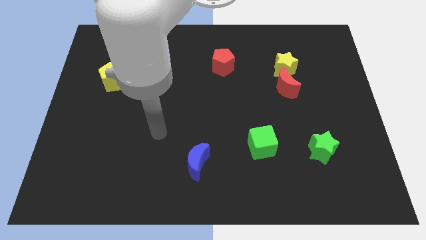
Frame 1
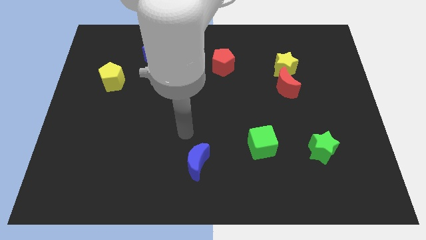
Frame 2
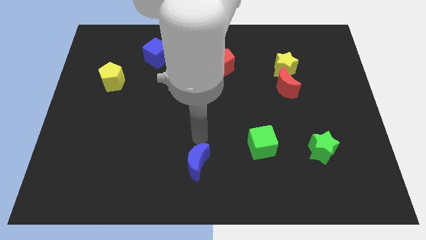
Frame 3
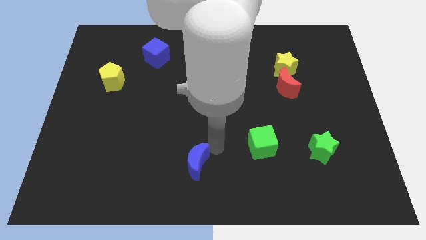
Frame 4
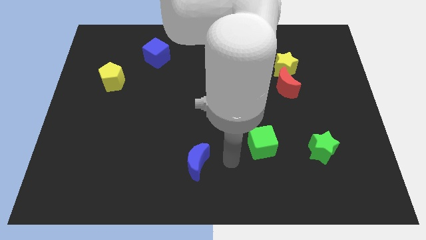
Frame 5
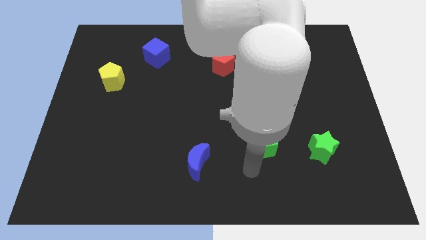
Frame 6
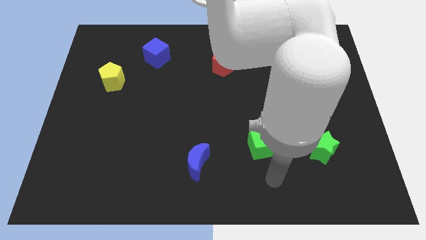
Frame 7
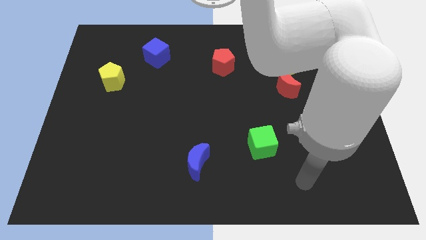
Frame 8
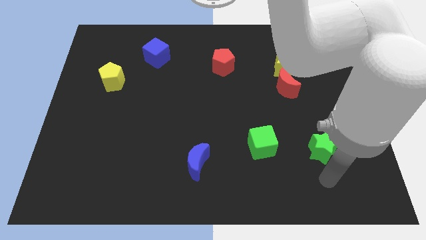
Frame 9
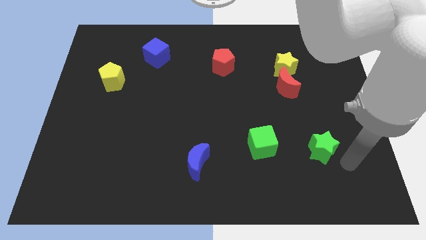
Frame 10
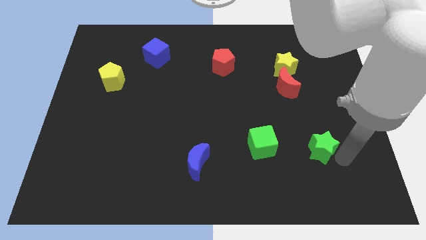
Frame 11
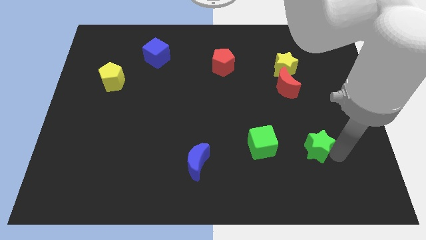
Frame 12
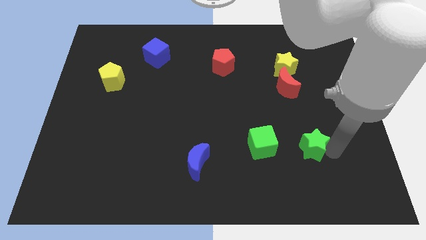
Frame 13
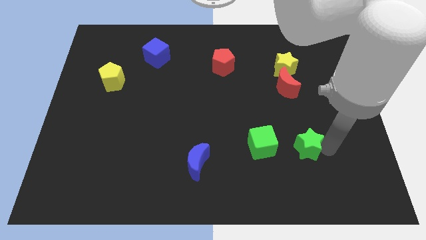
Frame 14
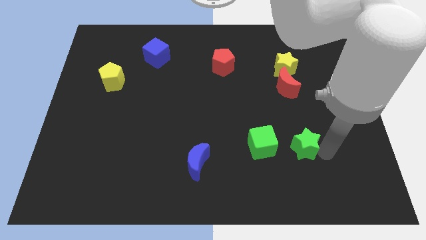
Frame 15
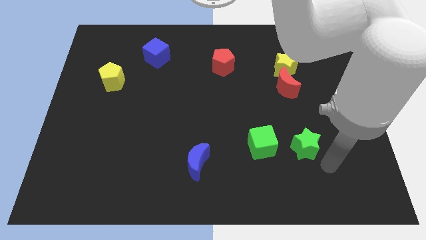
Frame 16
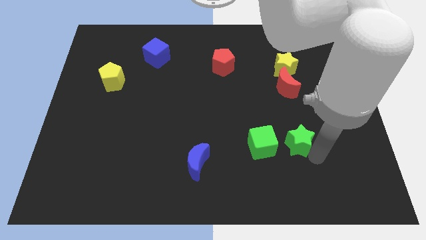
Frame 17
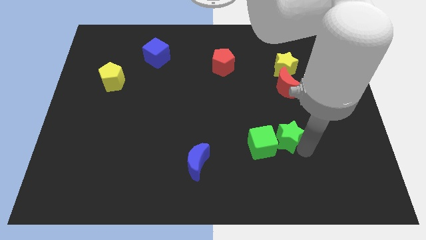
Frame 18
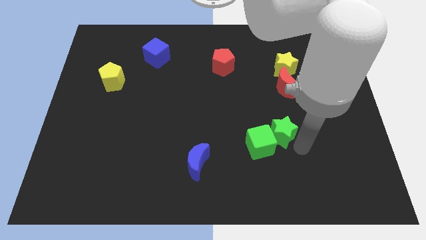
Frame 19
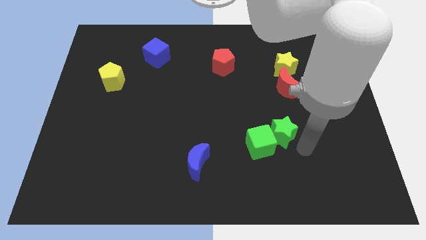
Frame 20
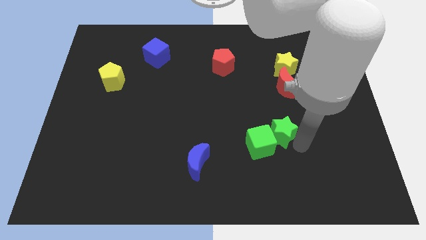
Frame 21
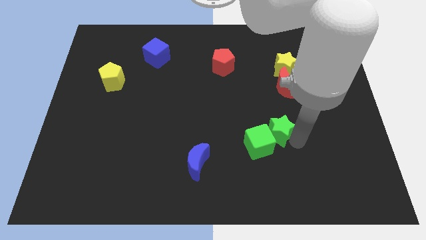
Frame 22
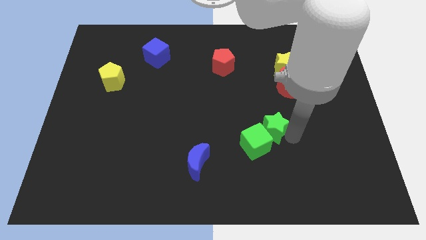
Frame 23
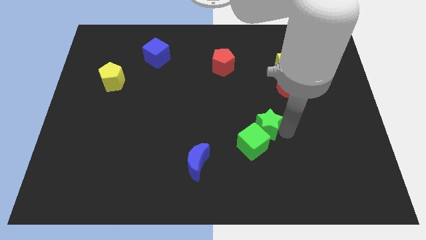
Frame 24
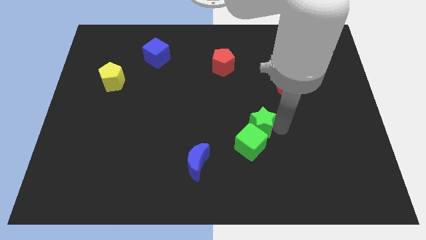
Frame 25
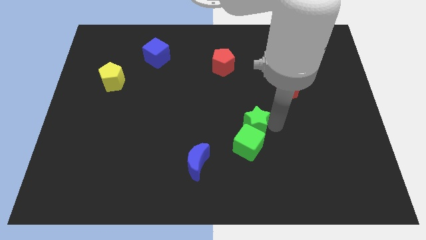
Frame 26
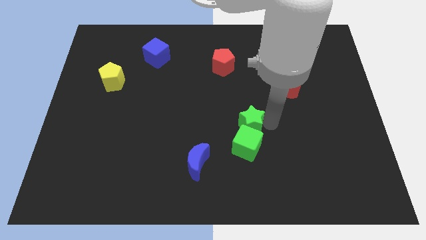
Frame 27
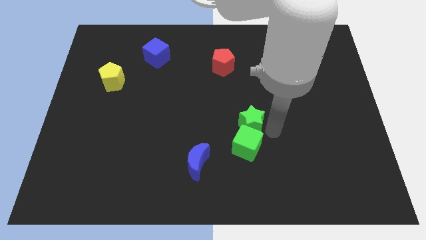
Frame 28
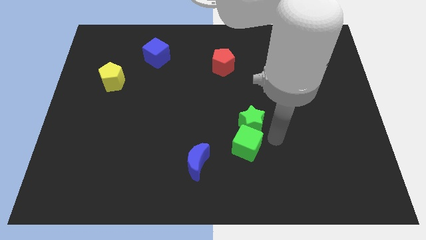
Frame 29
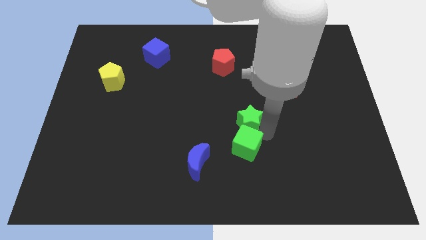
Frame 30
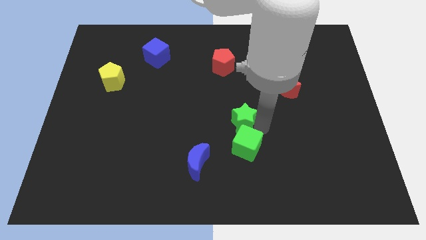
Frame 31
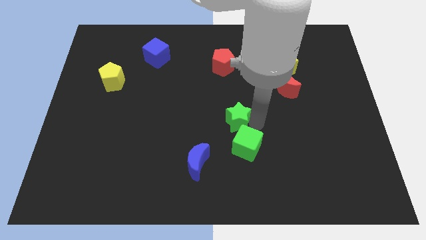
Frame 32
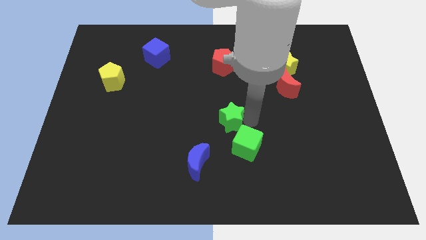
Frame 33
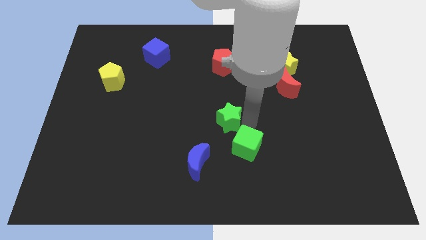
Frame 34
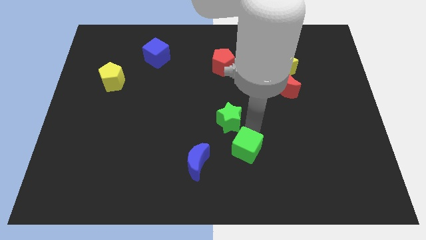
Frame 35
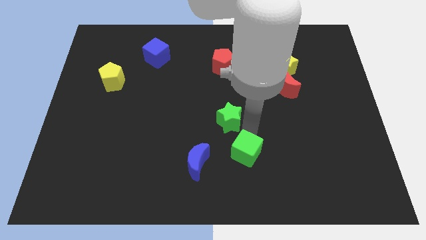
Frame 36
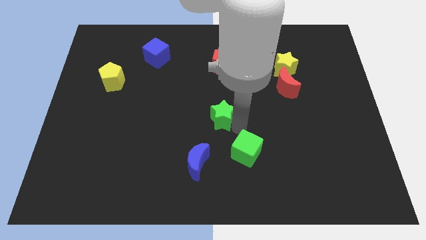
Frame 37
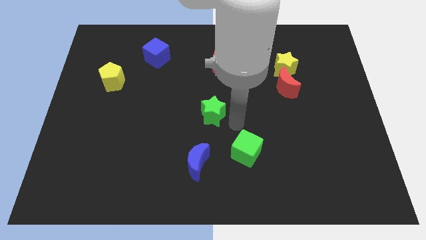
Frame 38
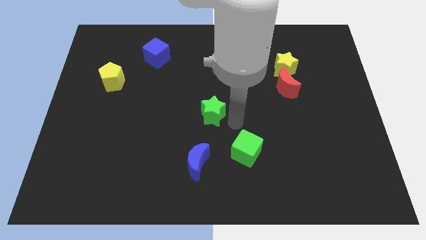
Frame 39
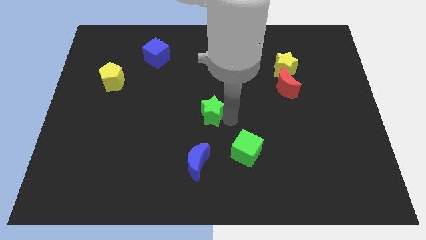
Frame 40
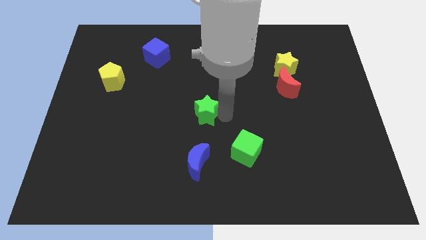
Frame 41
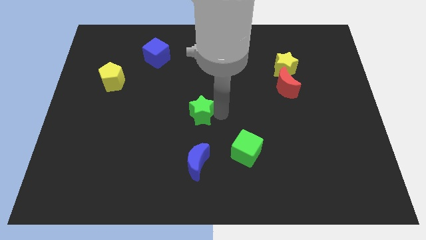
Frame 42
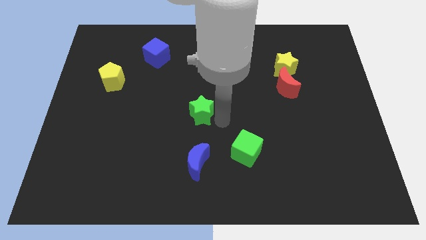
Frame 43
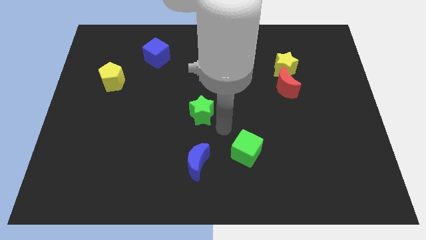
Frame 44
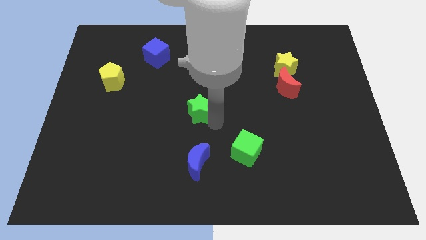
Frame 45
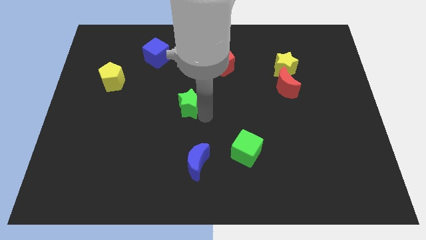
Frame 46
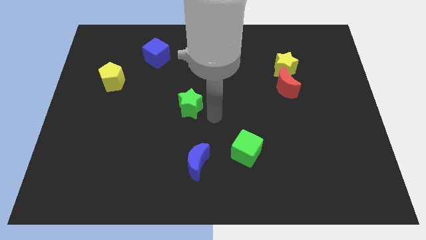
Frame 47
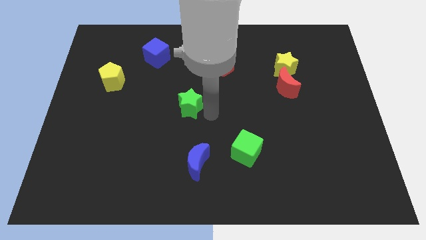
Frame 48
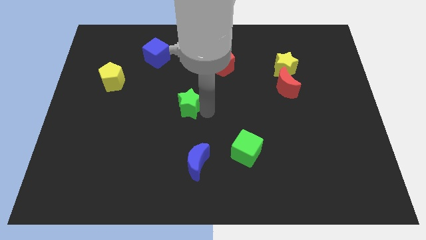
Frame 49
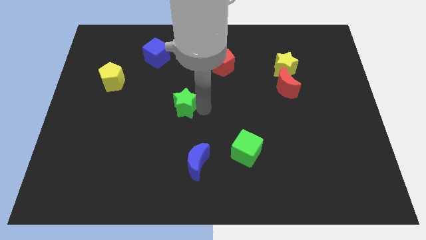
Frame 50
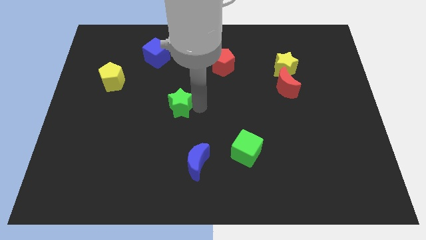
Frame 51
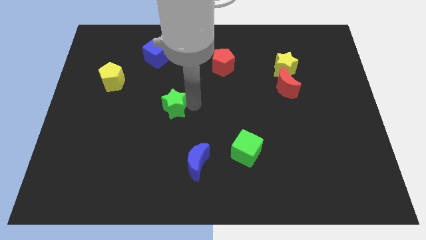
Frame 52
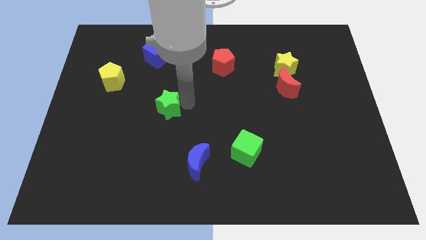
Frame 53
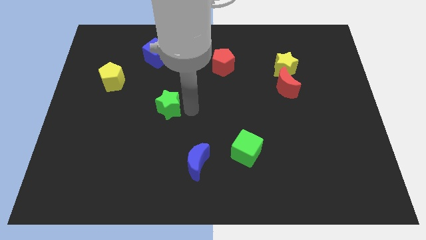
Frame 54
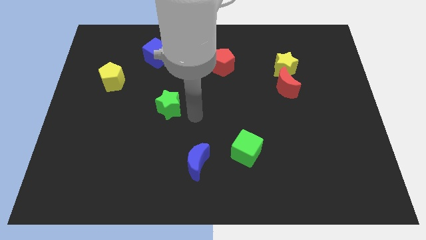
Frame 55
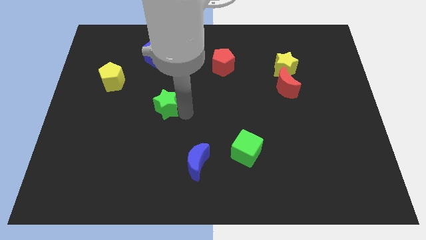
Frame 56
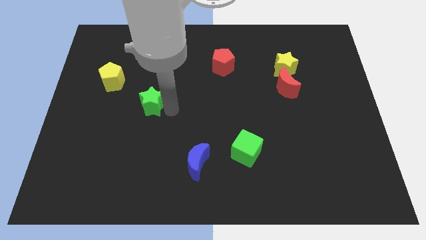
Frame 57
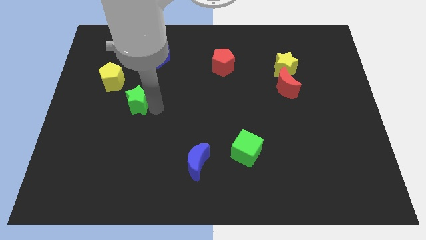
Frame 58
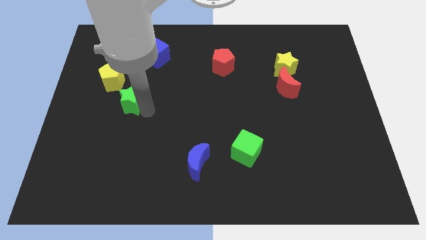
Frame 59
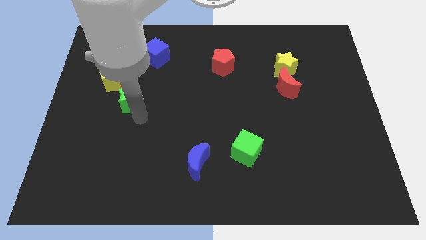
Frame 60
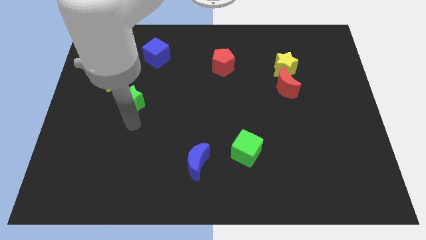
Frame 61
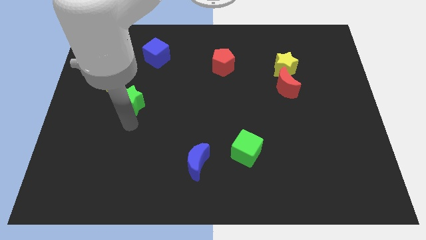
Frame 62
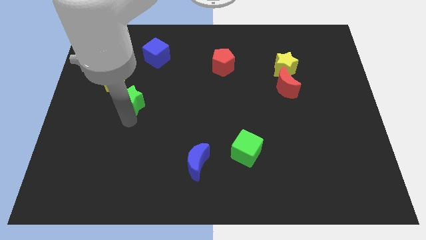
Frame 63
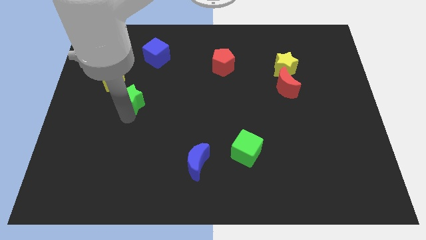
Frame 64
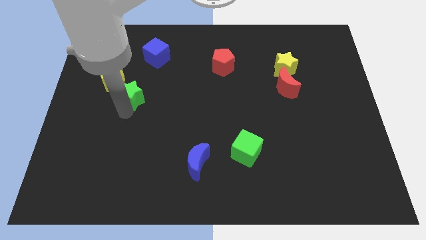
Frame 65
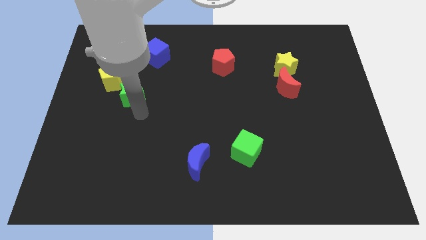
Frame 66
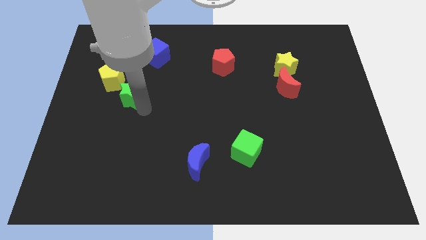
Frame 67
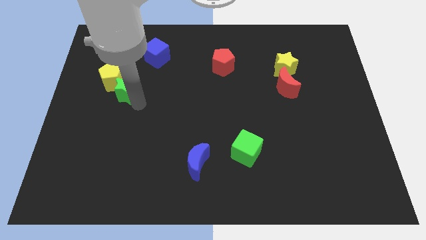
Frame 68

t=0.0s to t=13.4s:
push the green star to the yellow pentagon
